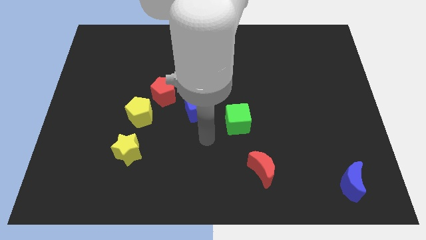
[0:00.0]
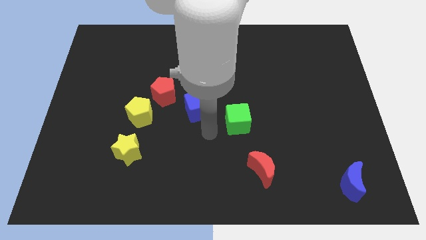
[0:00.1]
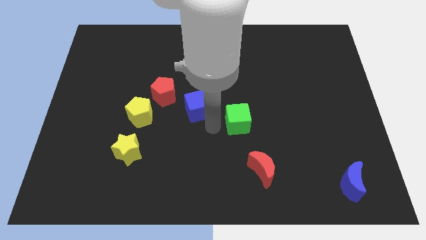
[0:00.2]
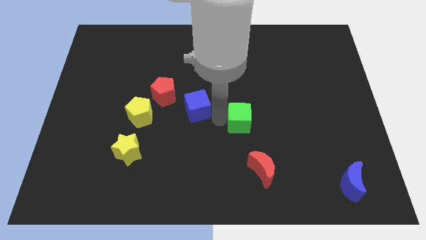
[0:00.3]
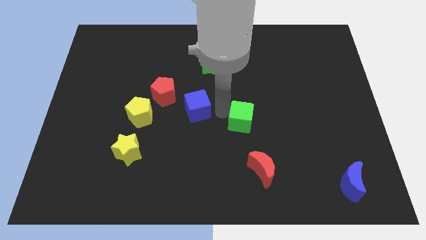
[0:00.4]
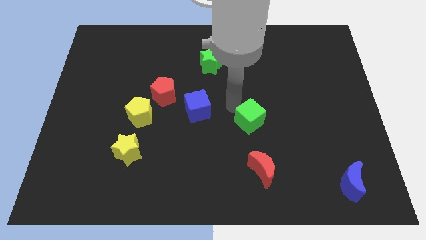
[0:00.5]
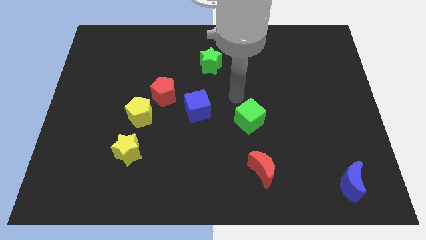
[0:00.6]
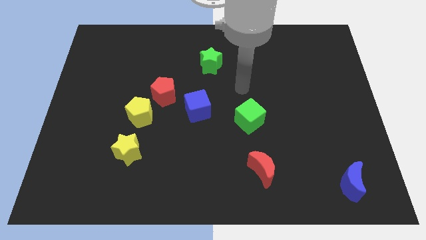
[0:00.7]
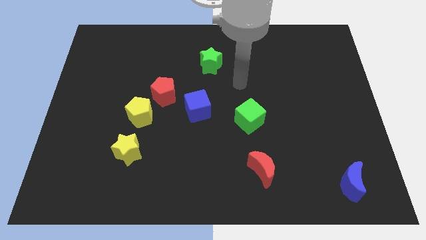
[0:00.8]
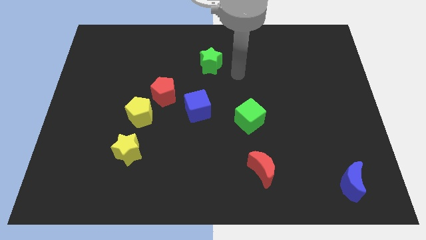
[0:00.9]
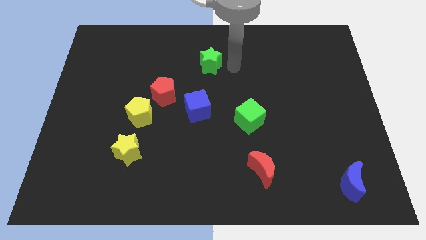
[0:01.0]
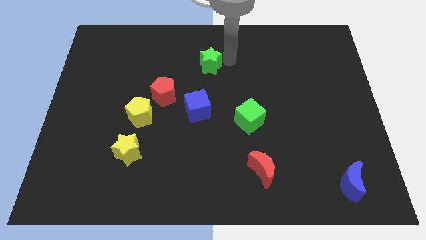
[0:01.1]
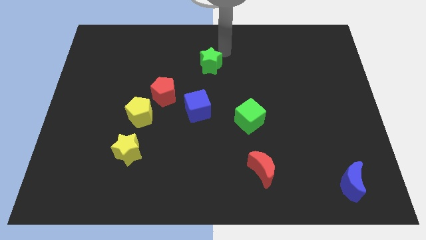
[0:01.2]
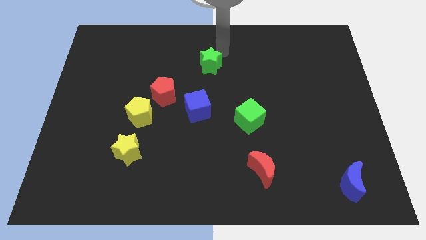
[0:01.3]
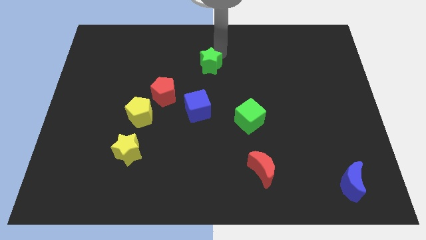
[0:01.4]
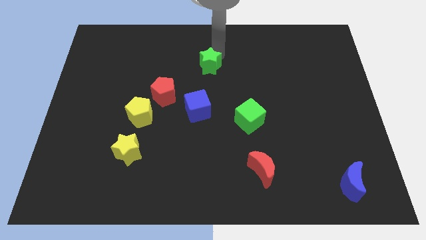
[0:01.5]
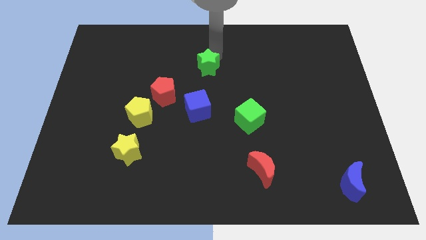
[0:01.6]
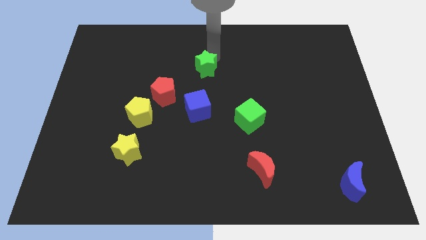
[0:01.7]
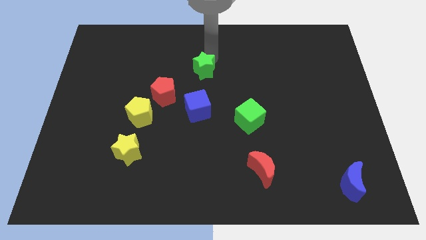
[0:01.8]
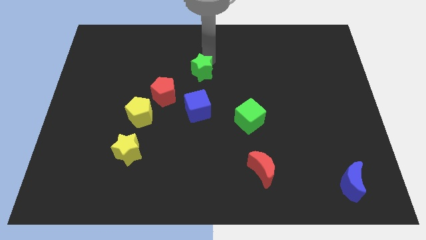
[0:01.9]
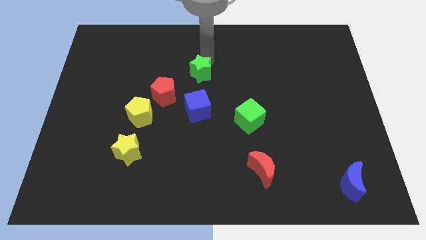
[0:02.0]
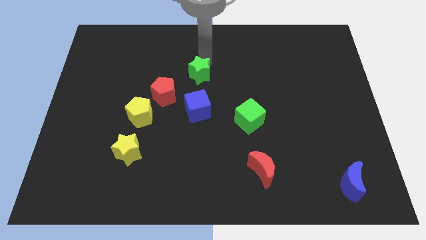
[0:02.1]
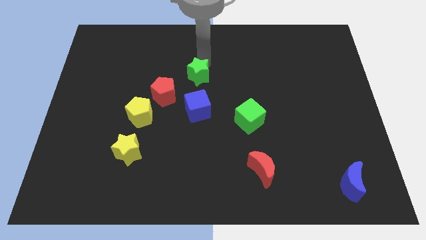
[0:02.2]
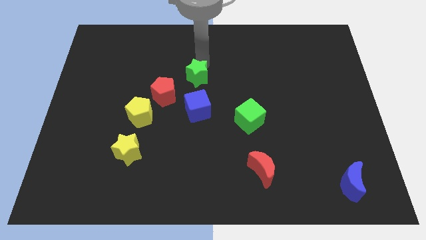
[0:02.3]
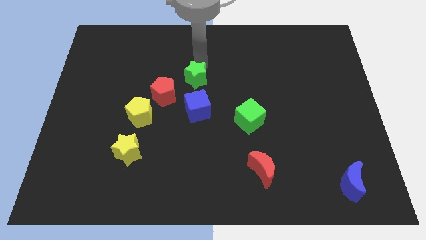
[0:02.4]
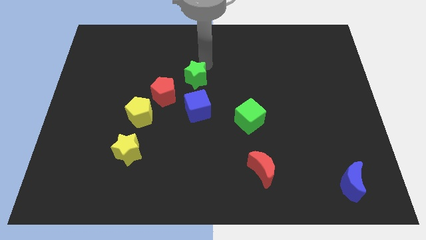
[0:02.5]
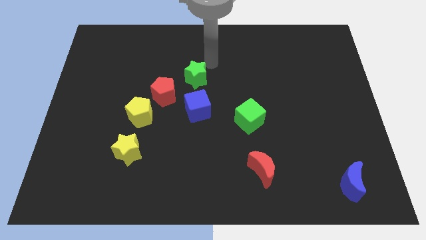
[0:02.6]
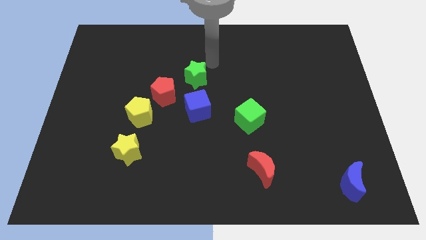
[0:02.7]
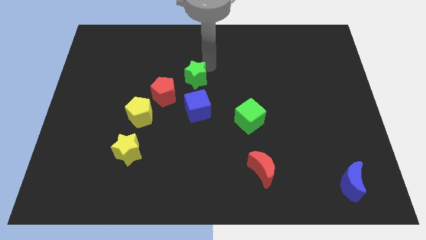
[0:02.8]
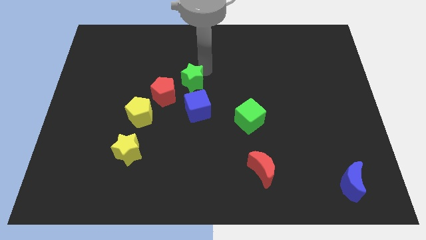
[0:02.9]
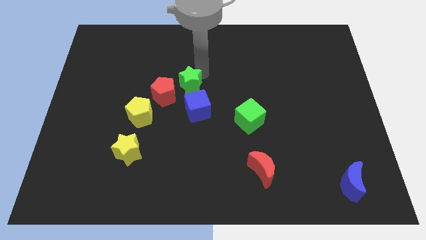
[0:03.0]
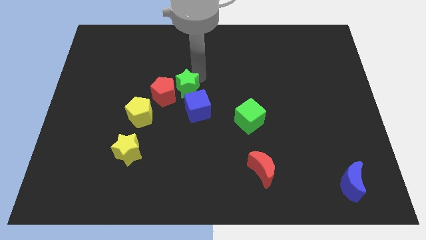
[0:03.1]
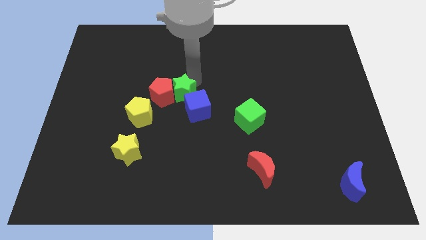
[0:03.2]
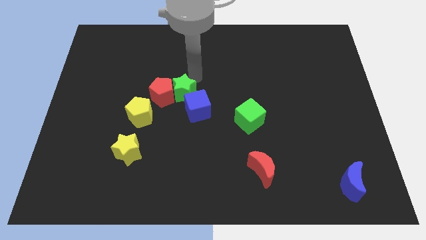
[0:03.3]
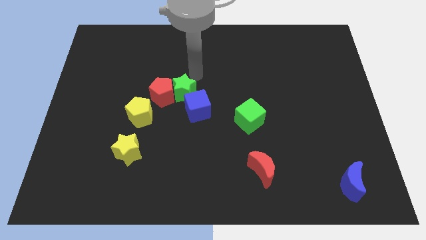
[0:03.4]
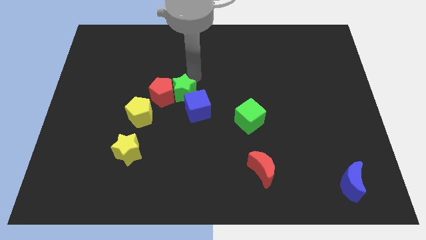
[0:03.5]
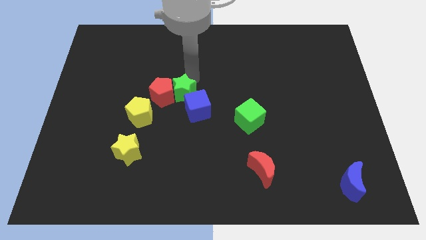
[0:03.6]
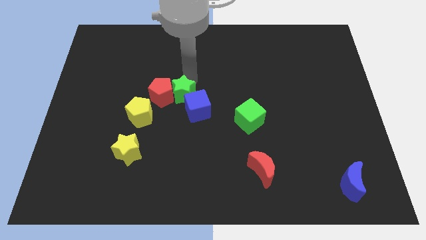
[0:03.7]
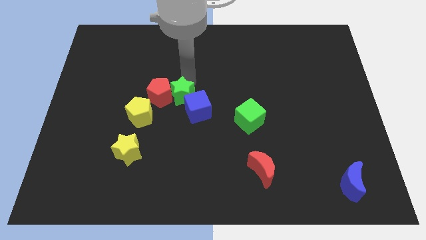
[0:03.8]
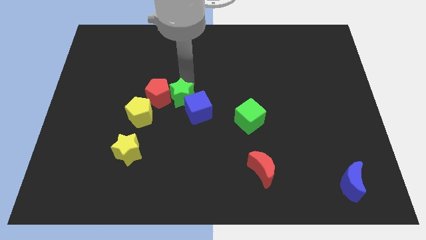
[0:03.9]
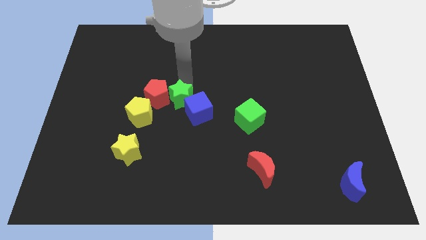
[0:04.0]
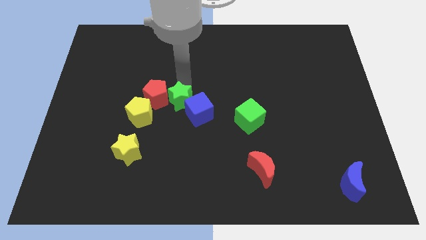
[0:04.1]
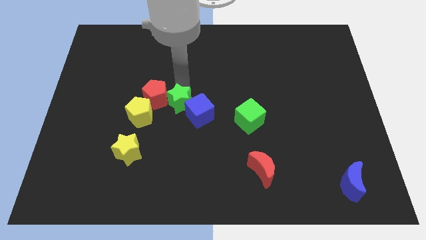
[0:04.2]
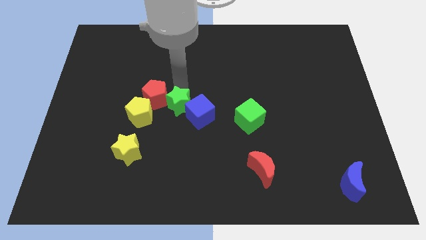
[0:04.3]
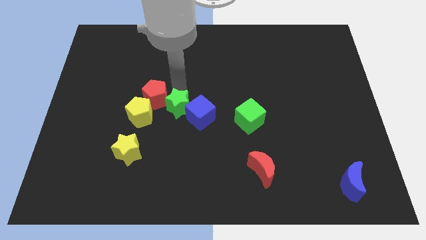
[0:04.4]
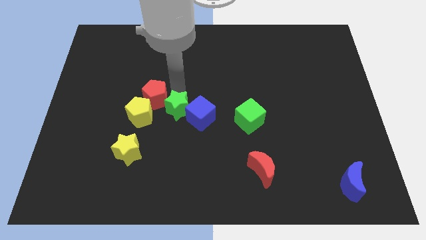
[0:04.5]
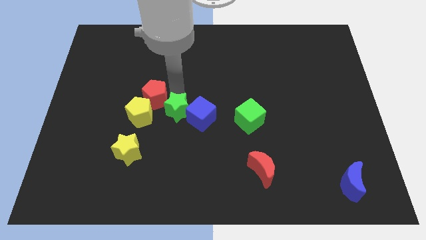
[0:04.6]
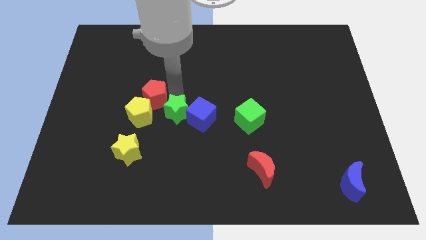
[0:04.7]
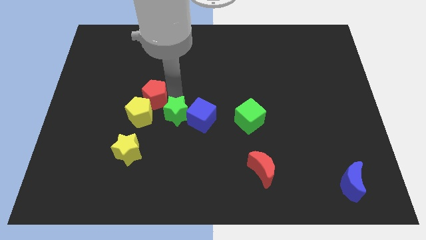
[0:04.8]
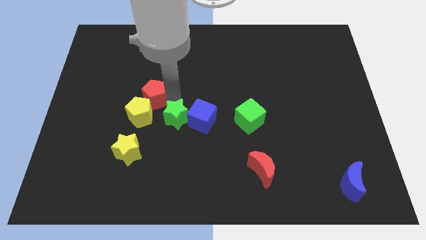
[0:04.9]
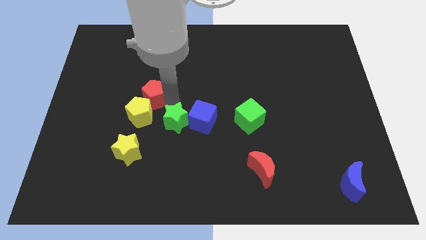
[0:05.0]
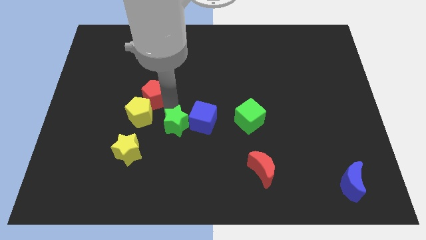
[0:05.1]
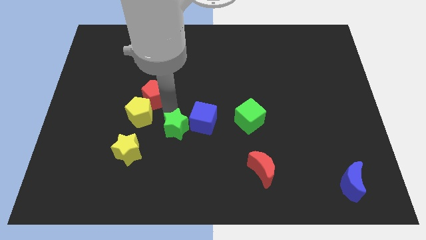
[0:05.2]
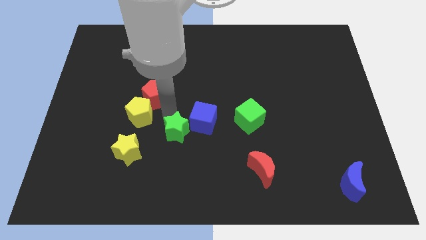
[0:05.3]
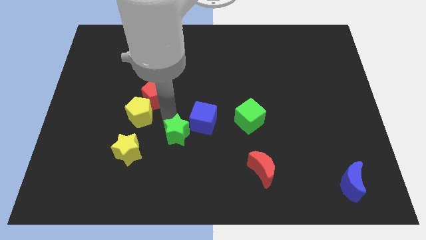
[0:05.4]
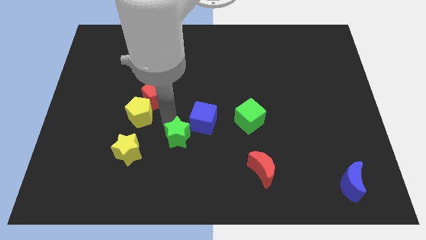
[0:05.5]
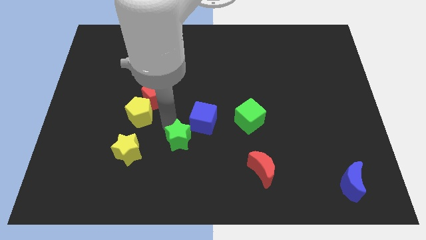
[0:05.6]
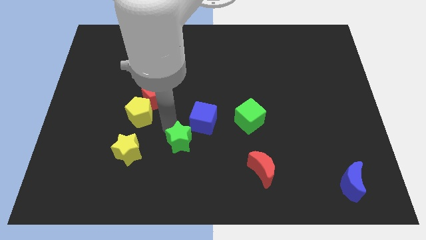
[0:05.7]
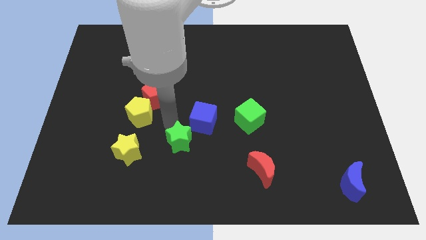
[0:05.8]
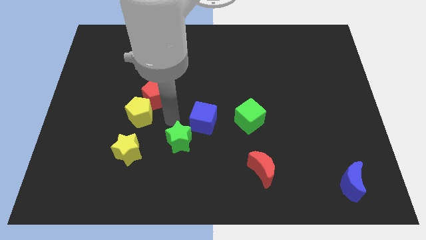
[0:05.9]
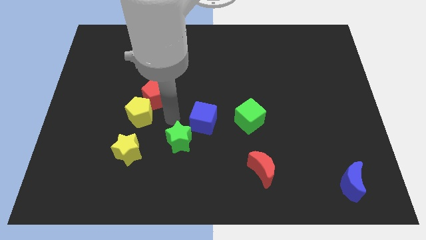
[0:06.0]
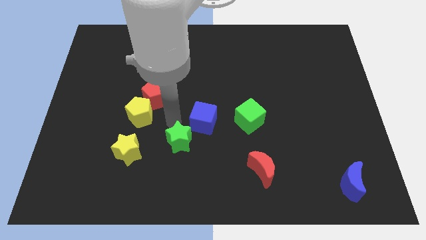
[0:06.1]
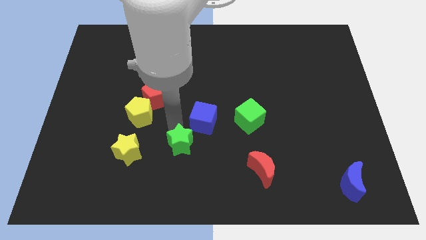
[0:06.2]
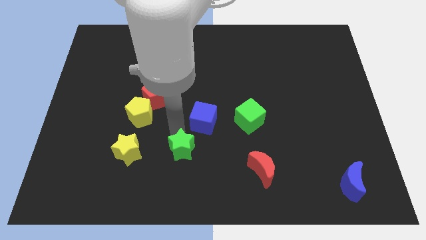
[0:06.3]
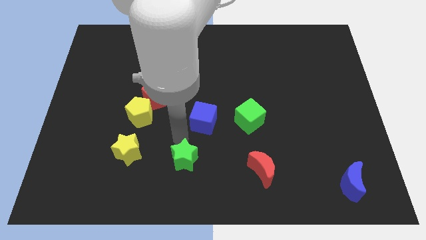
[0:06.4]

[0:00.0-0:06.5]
put the green star to the bottom side

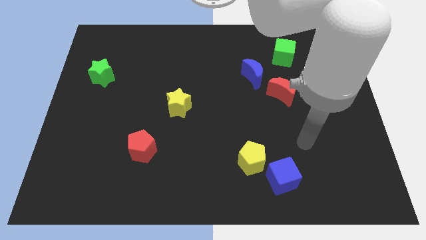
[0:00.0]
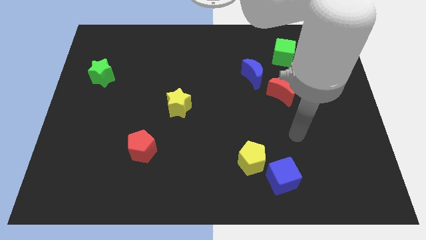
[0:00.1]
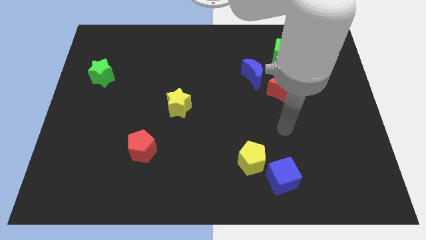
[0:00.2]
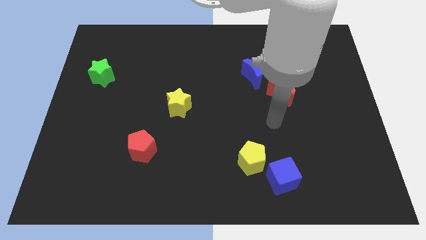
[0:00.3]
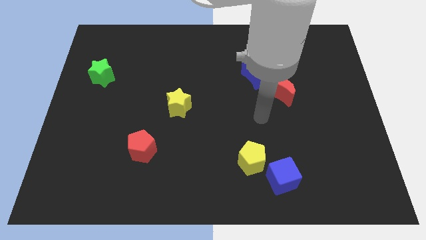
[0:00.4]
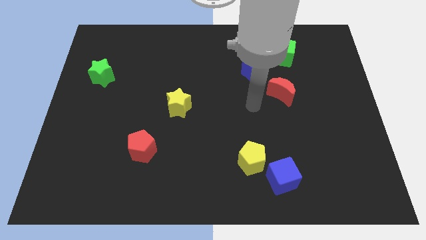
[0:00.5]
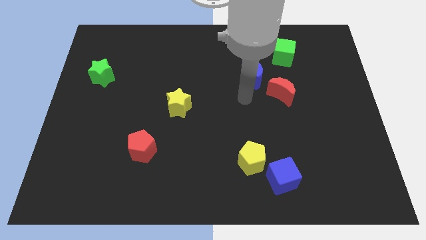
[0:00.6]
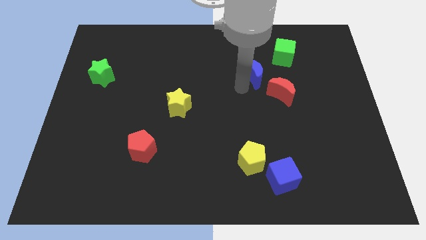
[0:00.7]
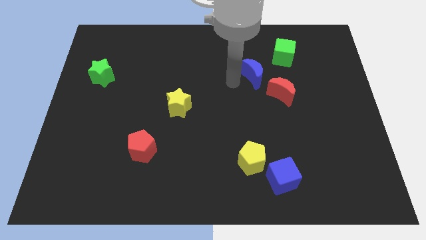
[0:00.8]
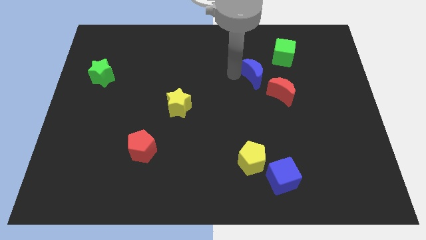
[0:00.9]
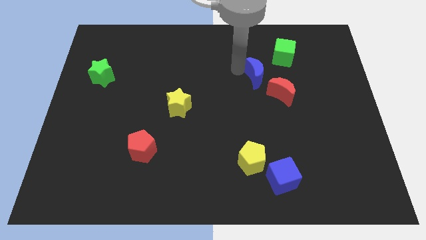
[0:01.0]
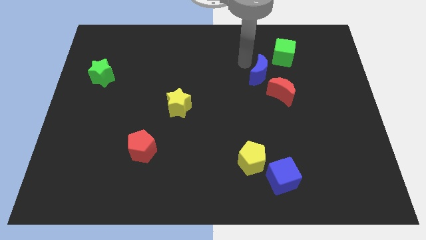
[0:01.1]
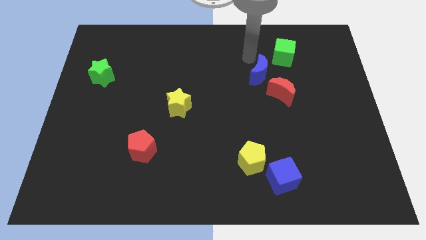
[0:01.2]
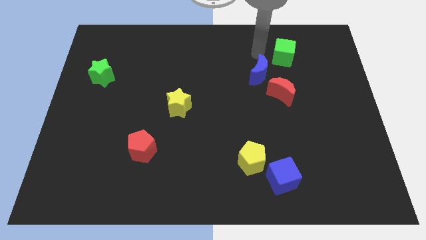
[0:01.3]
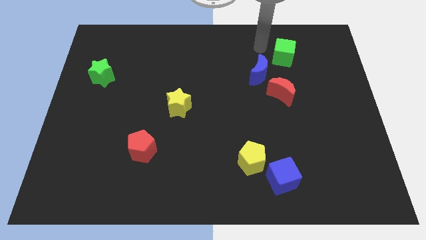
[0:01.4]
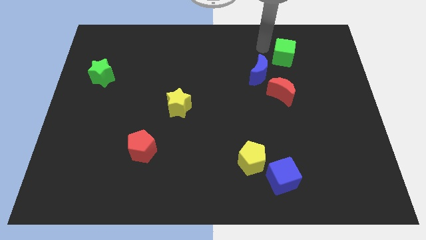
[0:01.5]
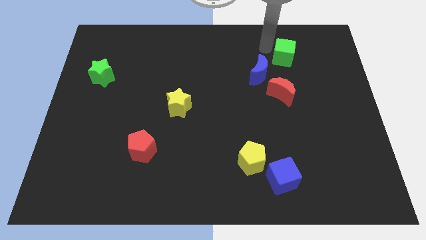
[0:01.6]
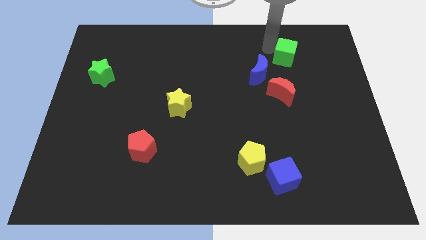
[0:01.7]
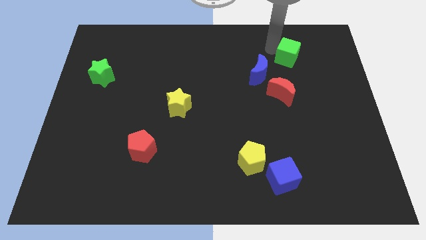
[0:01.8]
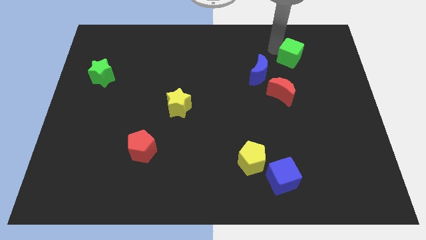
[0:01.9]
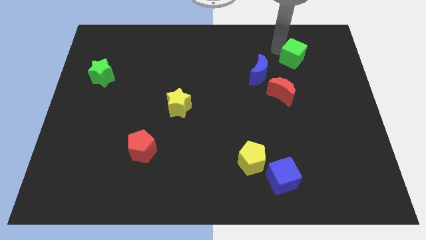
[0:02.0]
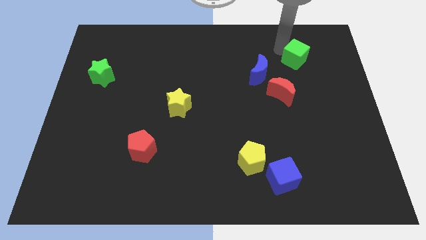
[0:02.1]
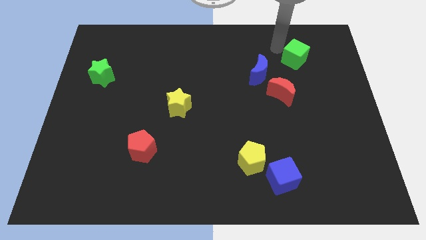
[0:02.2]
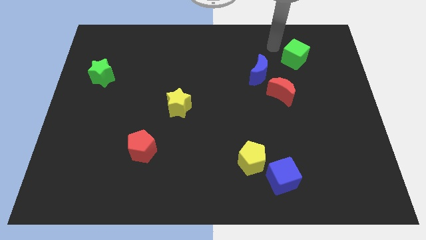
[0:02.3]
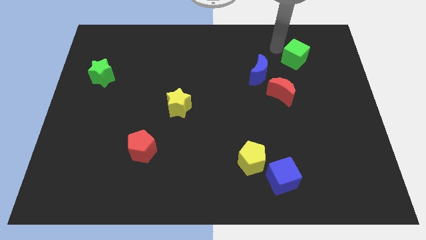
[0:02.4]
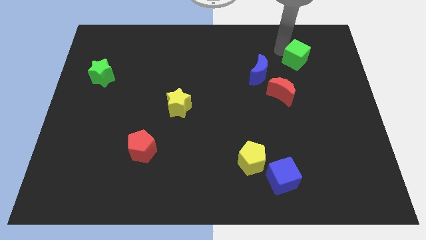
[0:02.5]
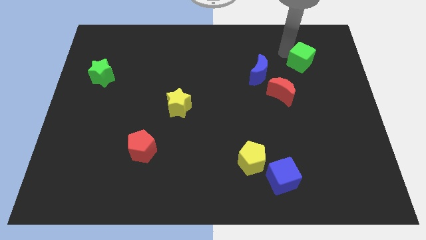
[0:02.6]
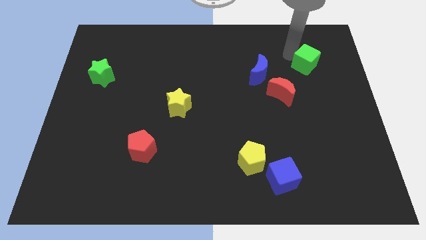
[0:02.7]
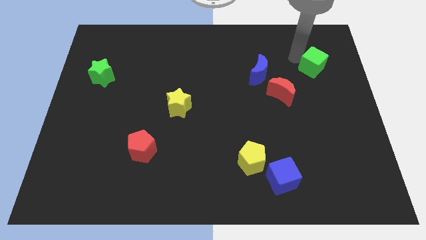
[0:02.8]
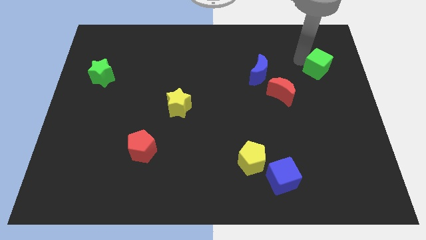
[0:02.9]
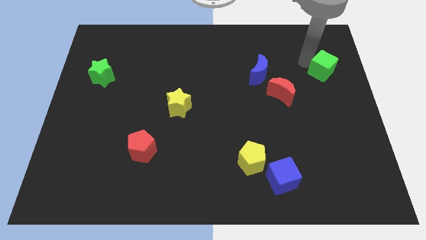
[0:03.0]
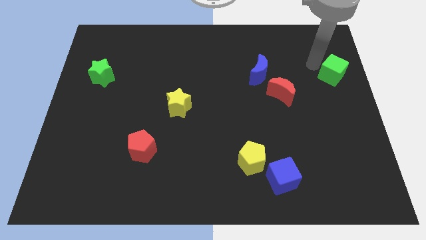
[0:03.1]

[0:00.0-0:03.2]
slide the green cube to the center right
